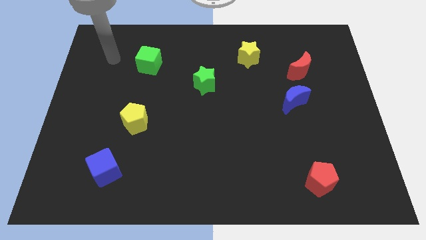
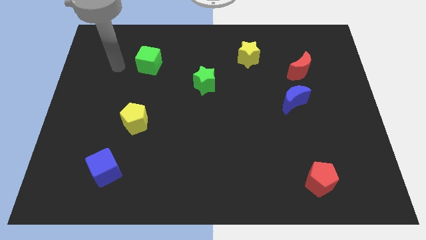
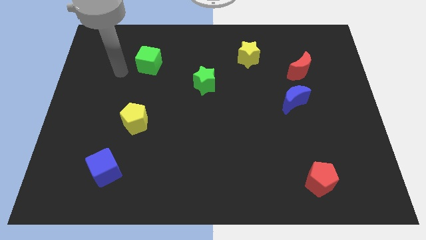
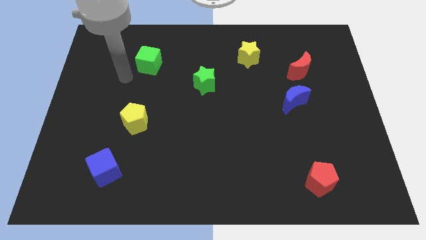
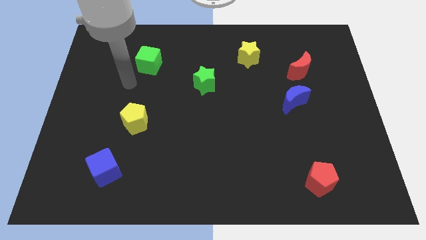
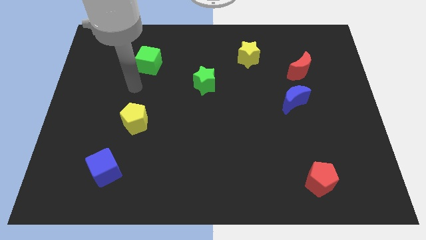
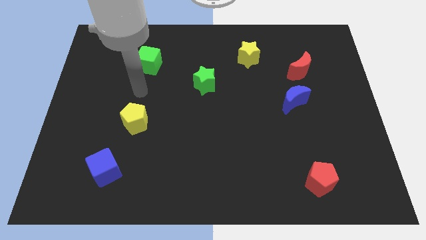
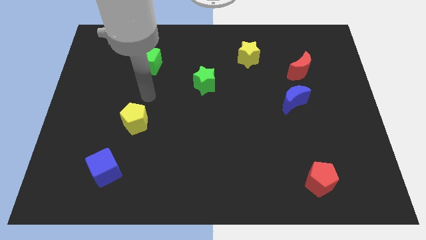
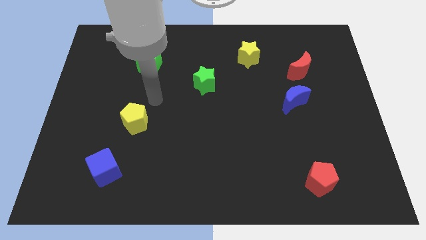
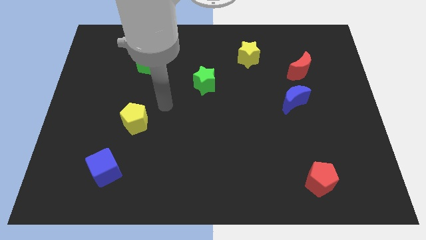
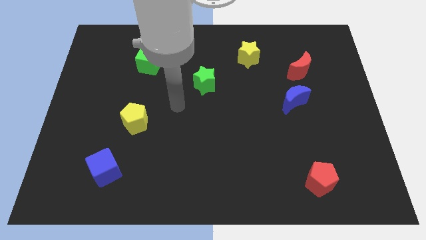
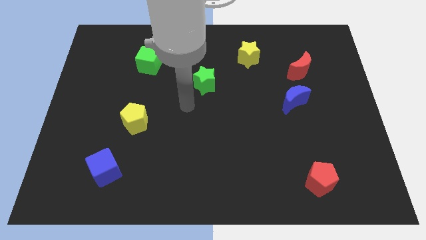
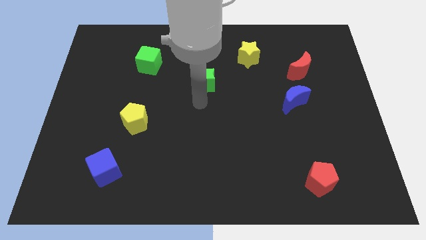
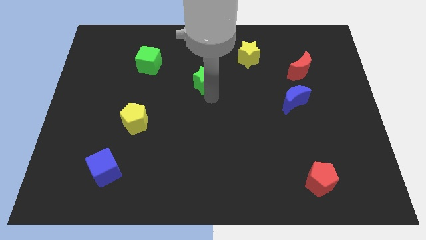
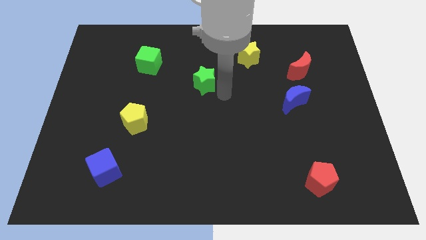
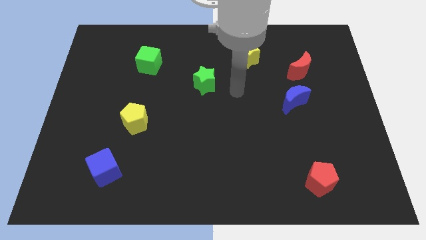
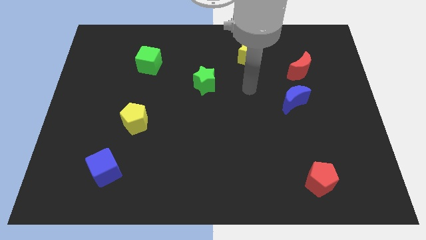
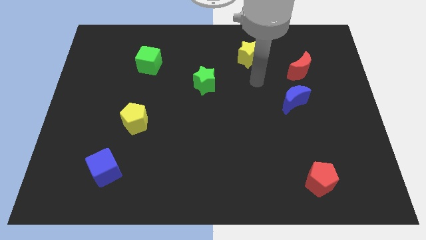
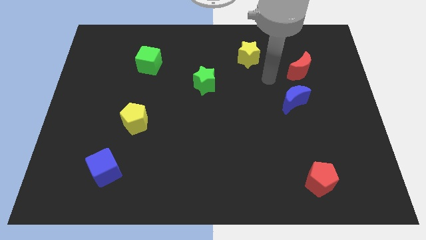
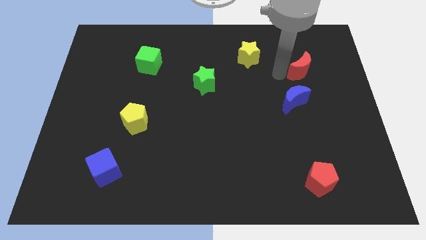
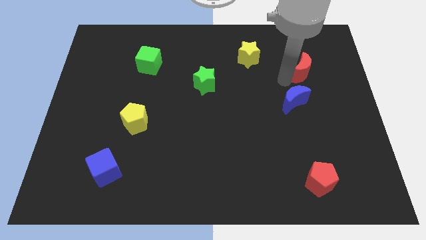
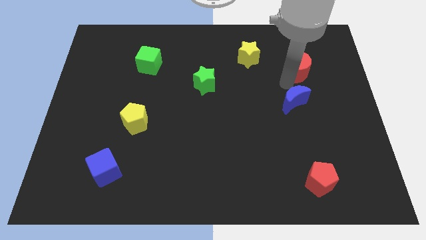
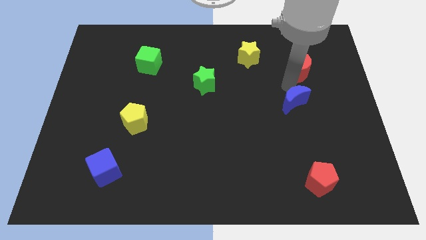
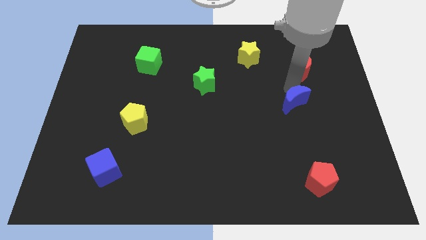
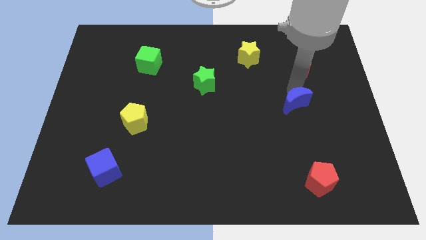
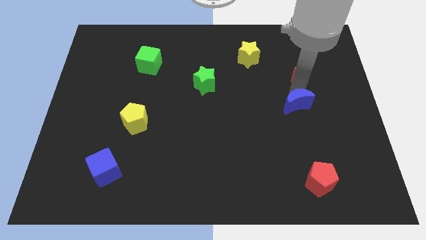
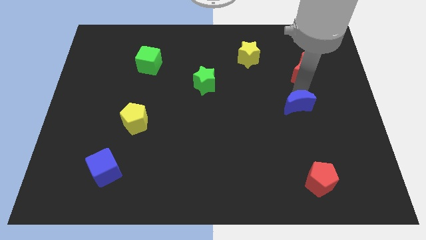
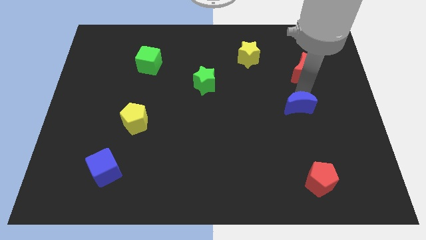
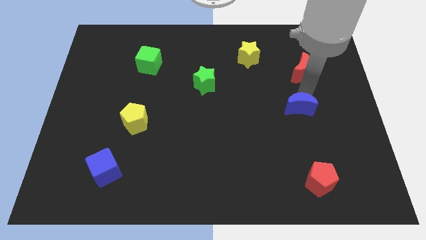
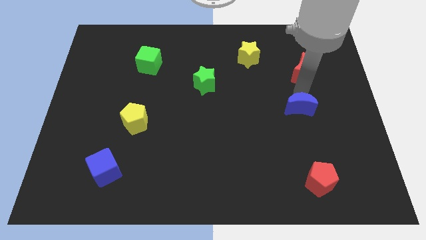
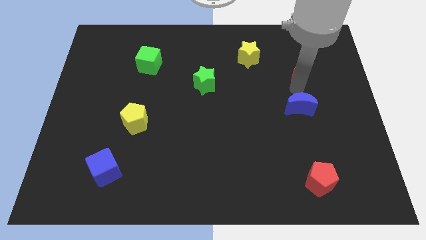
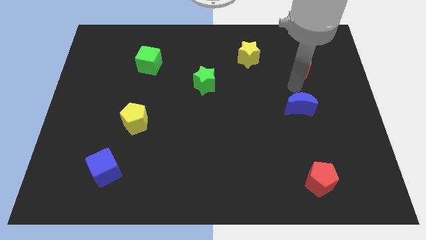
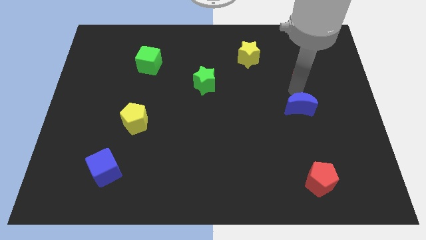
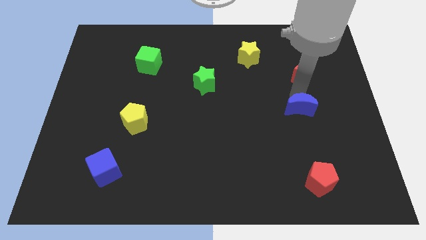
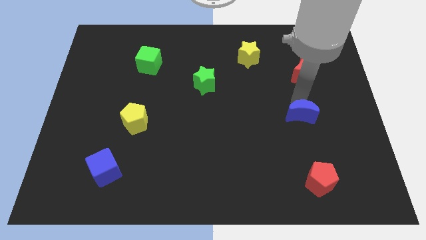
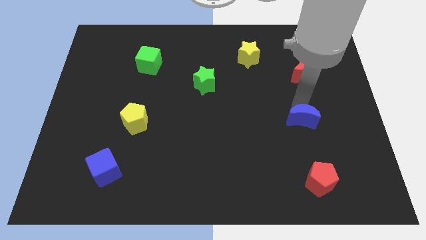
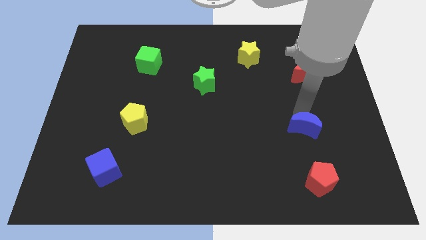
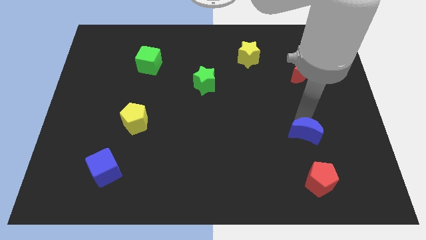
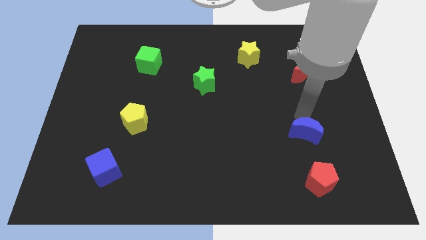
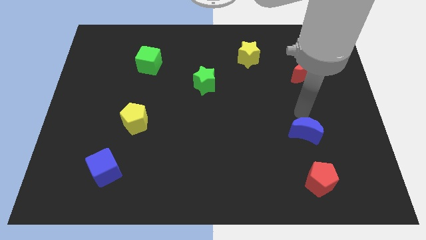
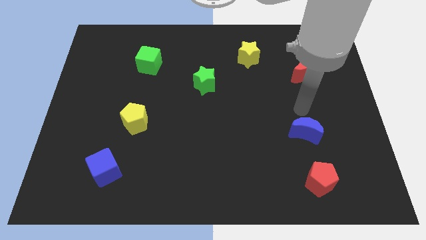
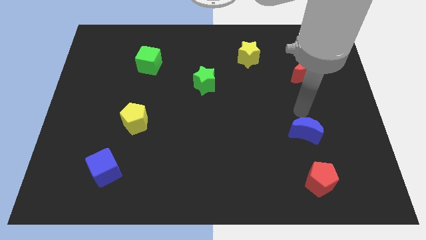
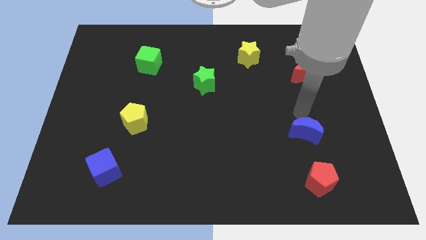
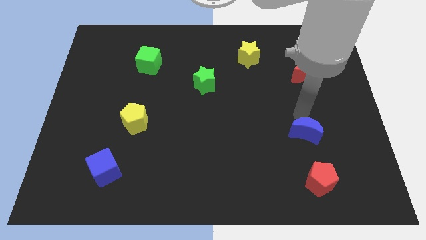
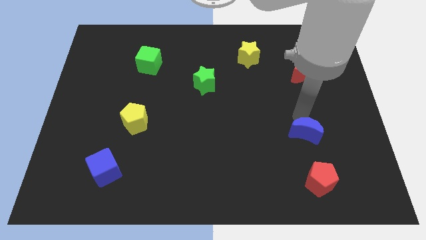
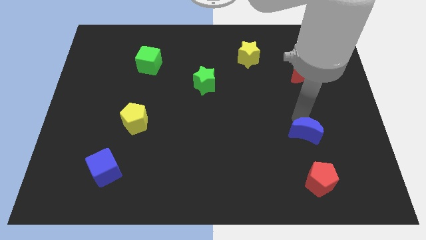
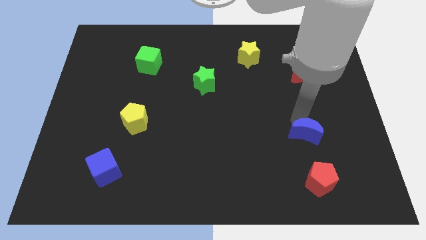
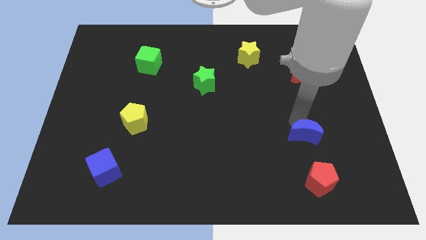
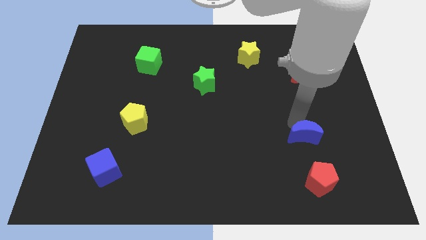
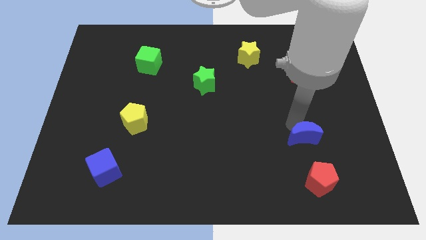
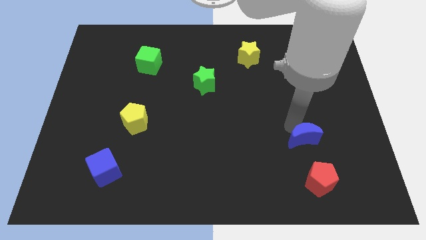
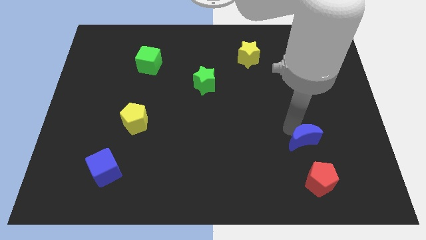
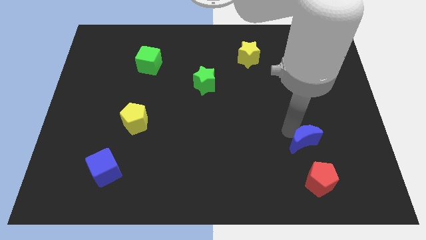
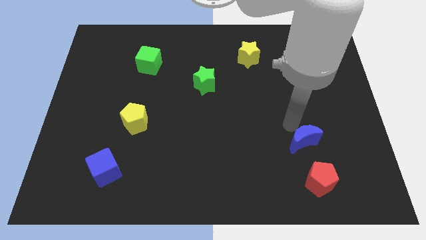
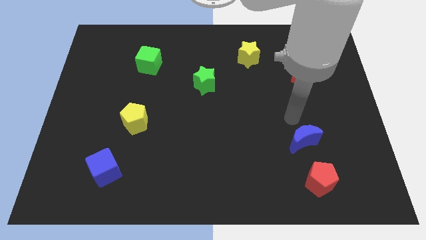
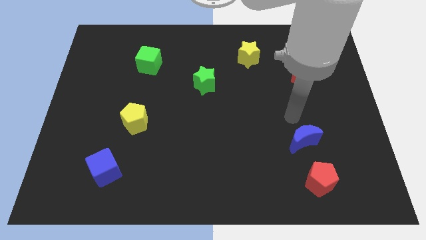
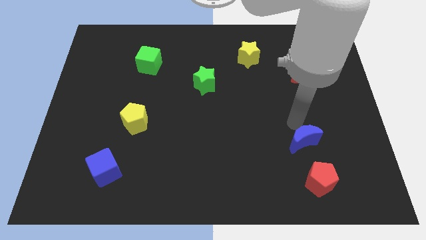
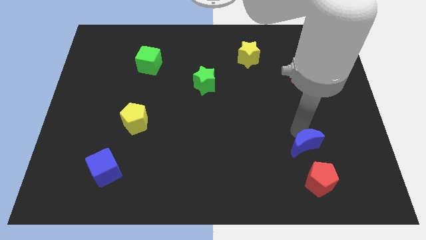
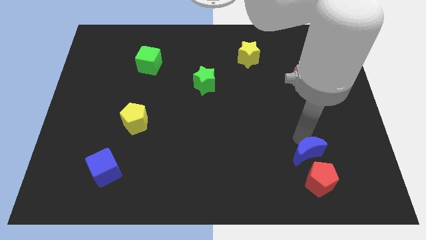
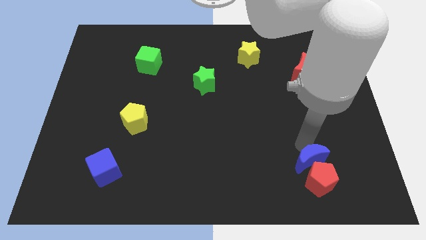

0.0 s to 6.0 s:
slide the blue moon towards the red pentagon

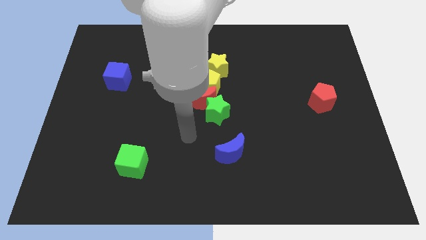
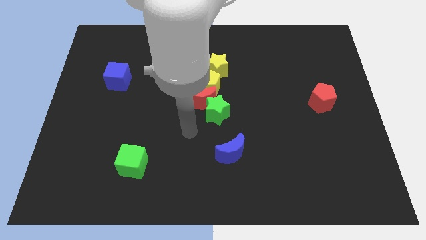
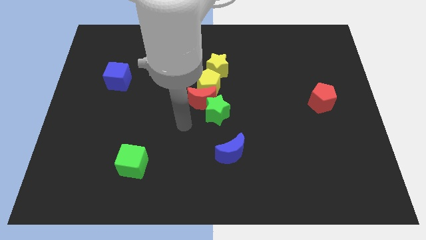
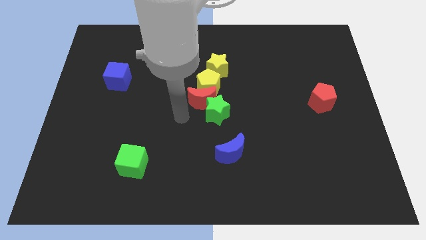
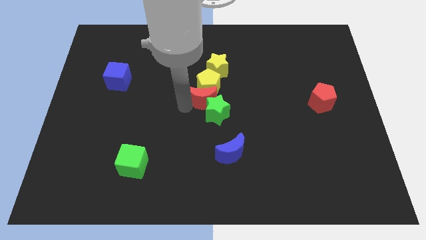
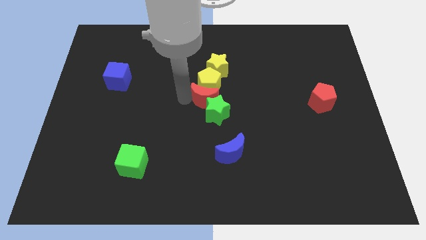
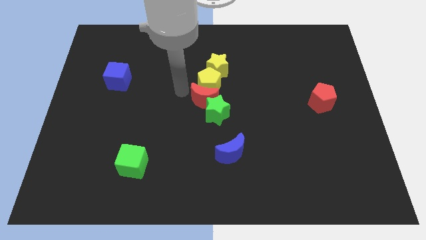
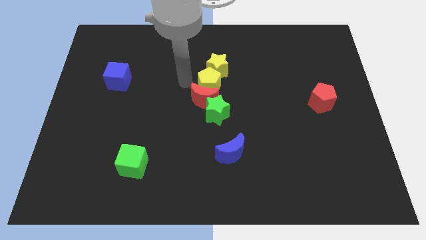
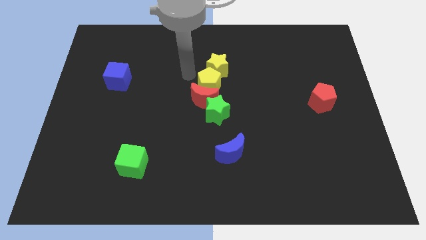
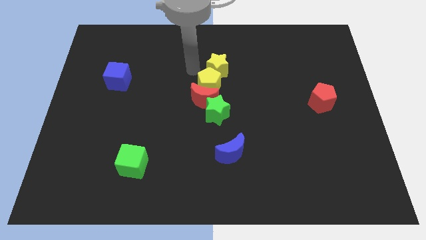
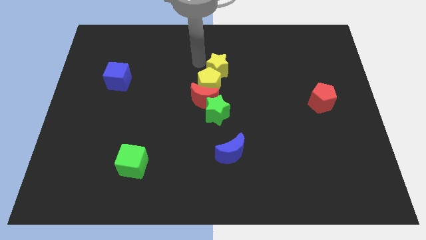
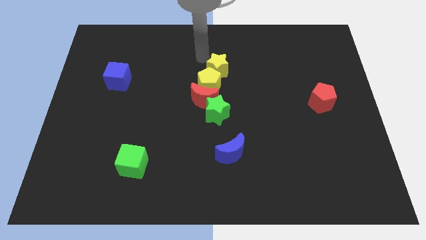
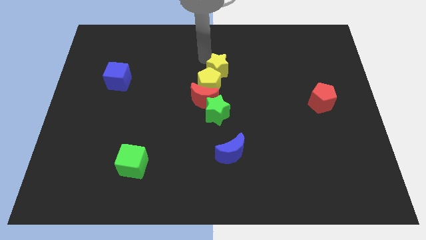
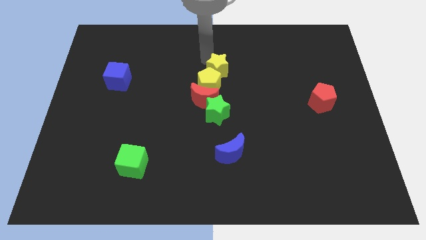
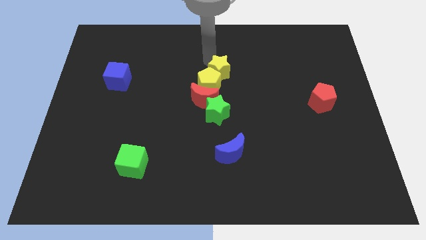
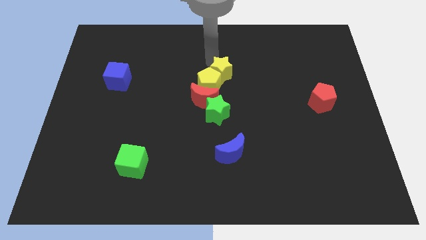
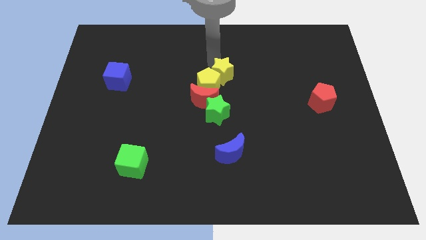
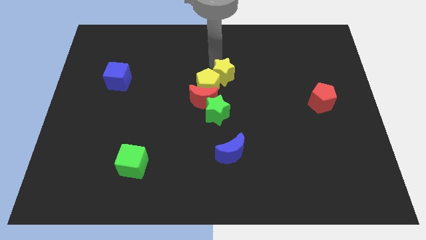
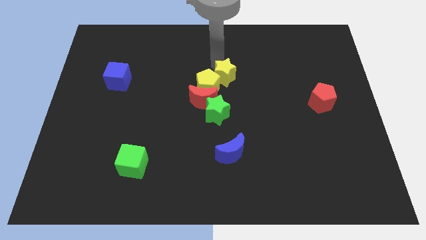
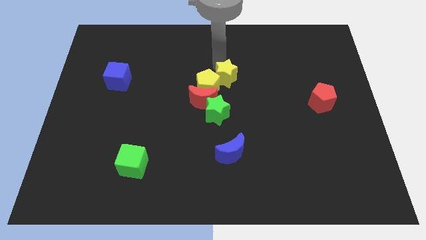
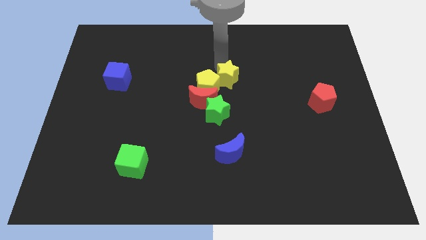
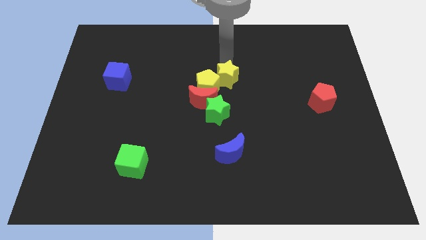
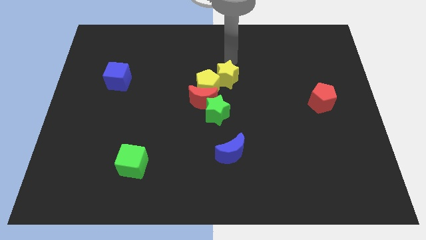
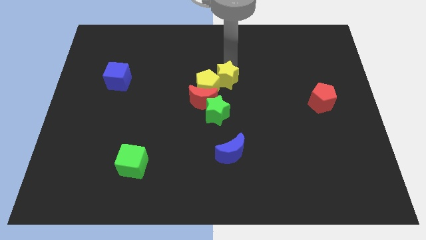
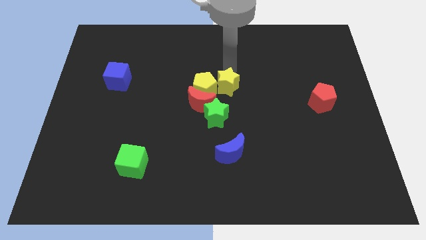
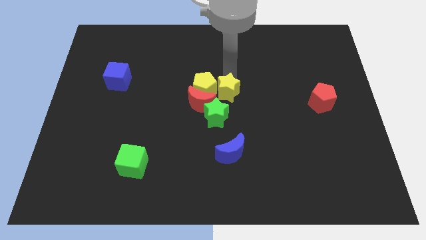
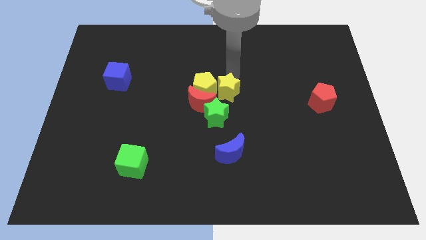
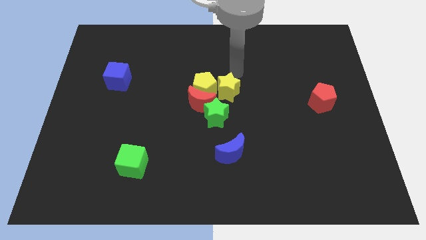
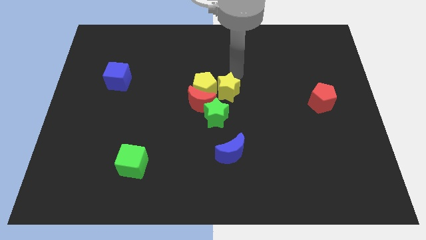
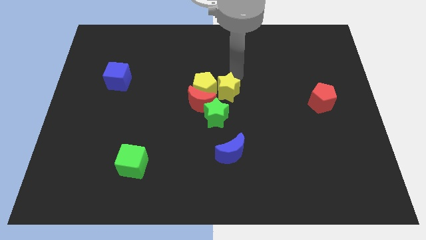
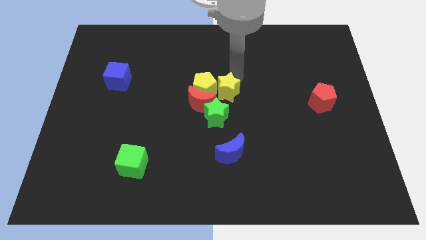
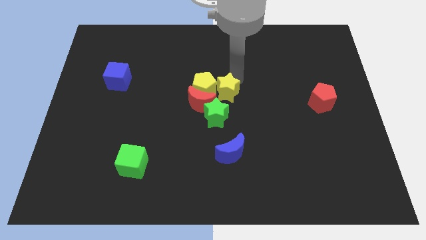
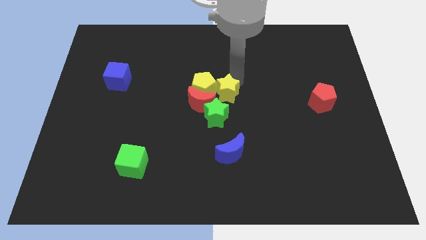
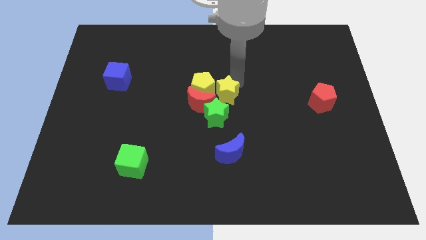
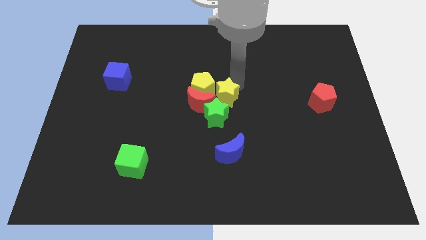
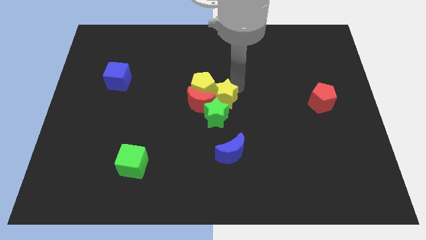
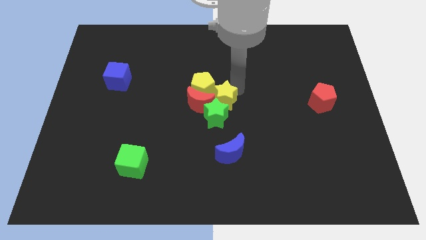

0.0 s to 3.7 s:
slide the yellow star to the green star
